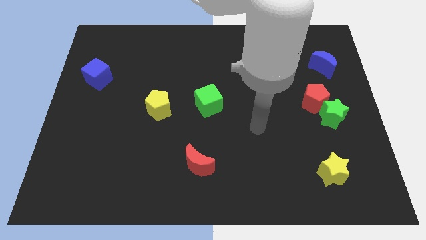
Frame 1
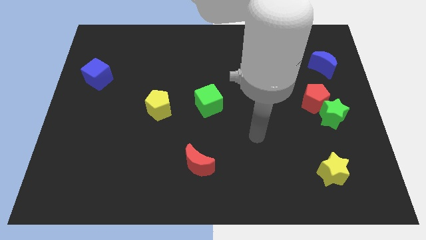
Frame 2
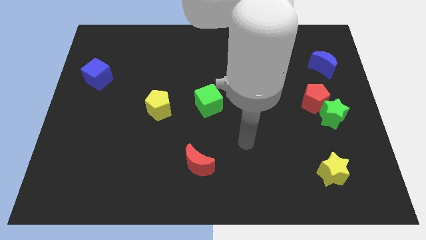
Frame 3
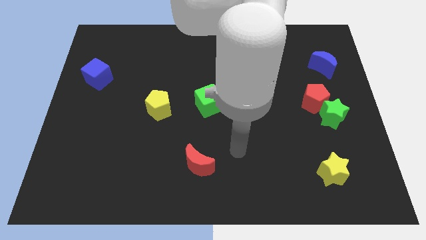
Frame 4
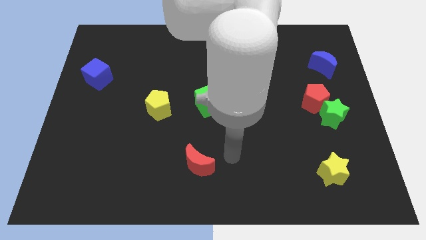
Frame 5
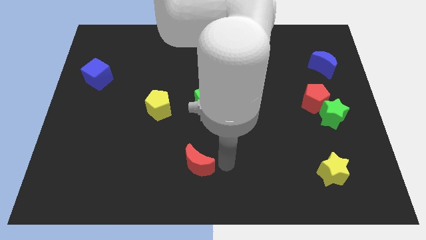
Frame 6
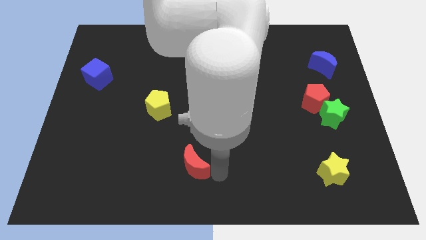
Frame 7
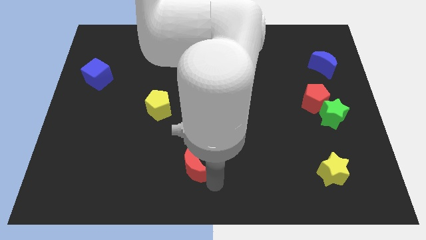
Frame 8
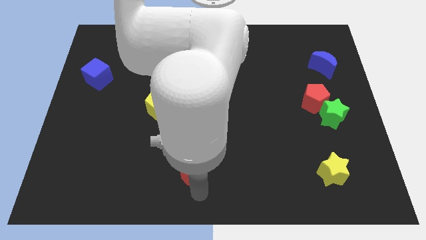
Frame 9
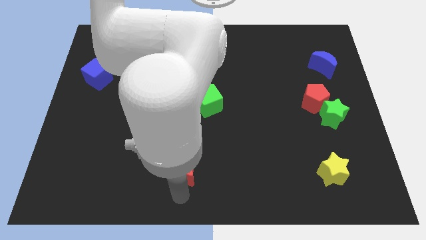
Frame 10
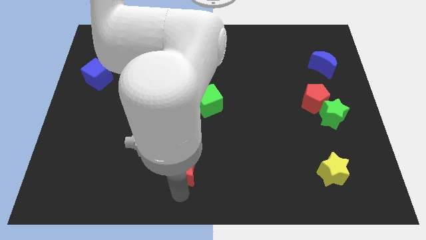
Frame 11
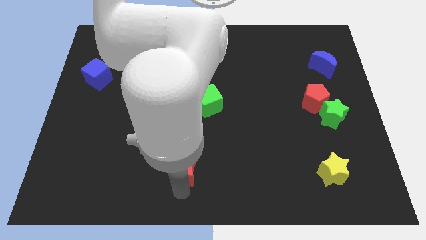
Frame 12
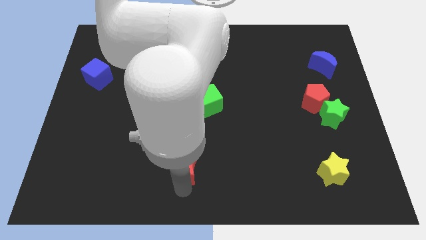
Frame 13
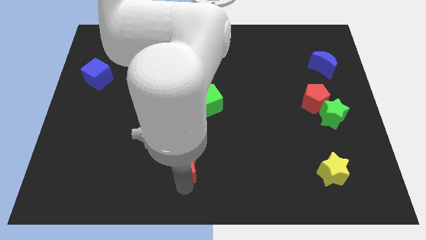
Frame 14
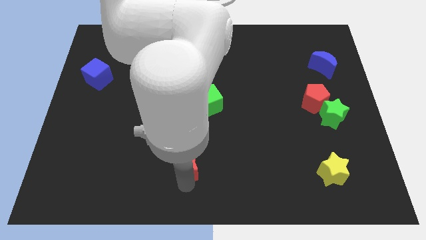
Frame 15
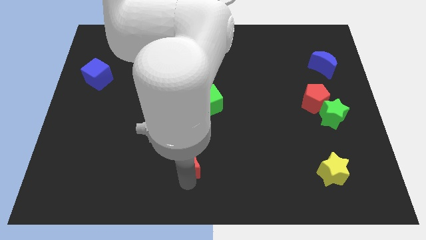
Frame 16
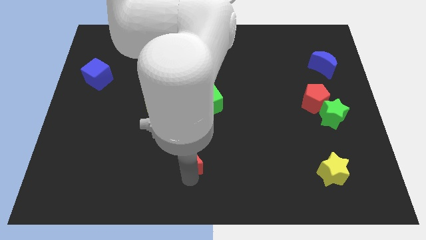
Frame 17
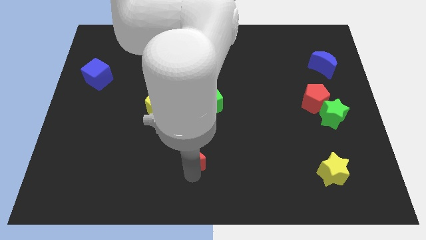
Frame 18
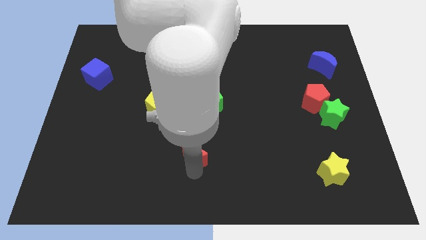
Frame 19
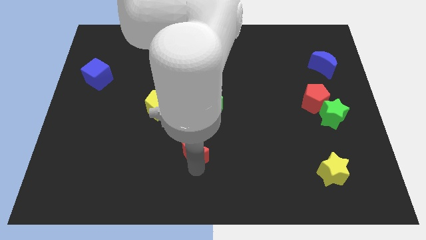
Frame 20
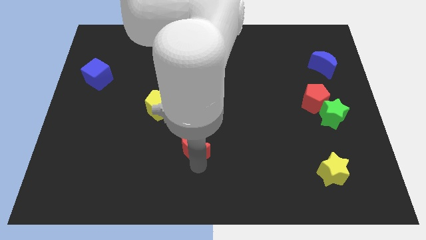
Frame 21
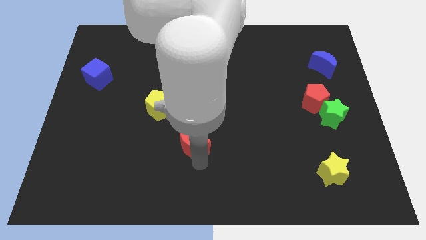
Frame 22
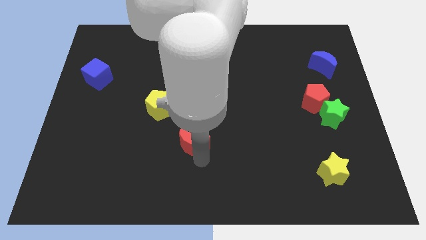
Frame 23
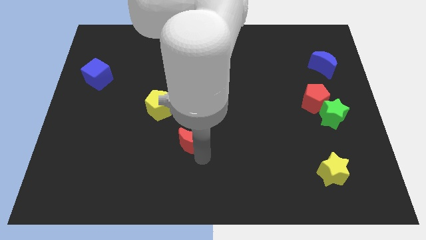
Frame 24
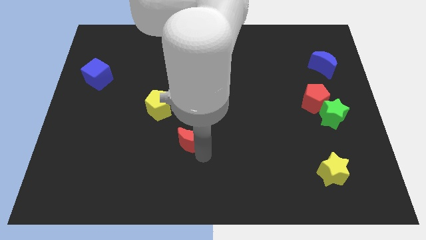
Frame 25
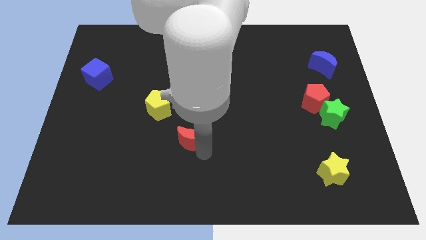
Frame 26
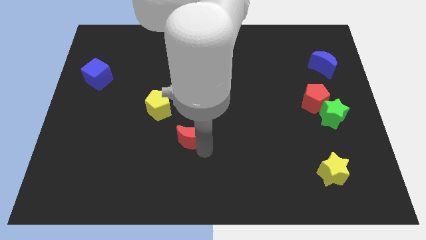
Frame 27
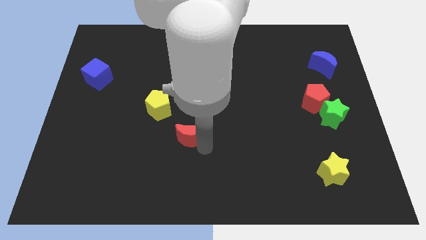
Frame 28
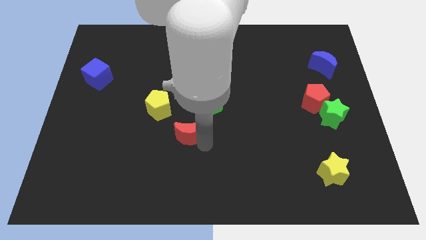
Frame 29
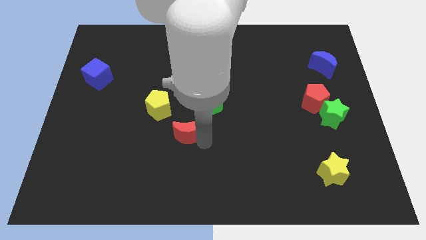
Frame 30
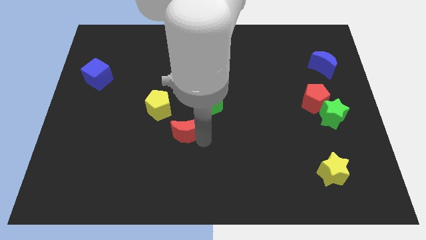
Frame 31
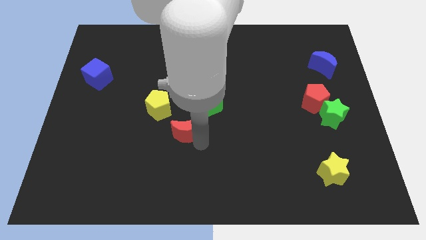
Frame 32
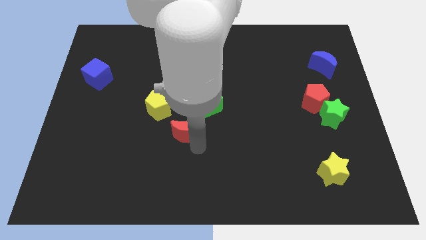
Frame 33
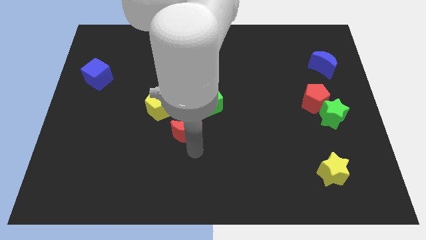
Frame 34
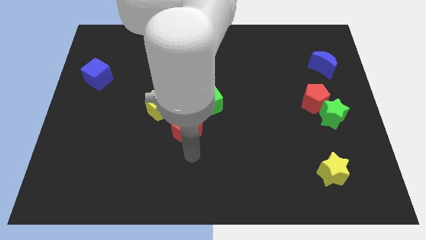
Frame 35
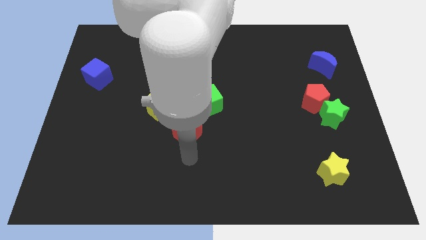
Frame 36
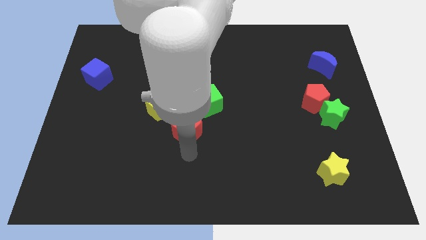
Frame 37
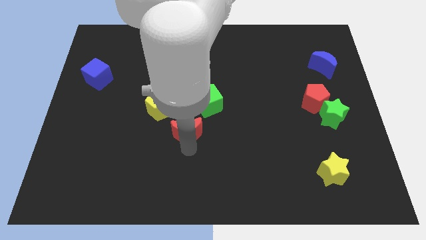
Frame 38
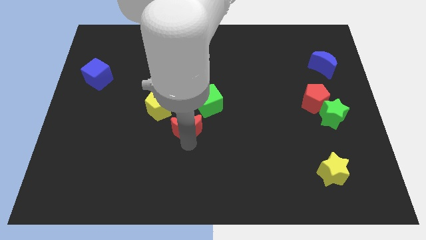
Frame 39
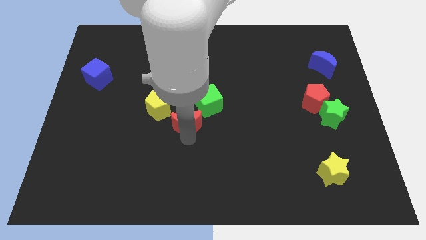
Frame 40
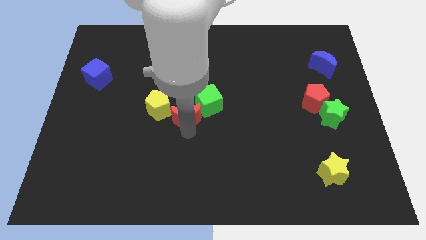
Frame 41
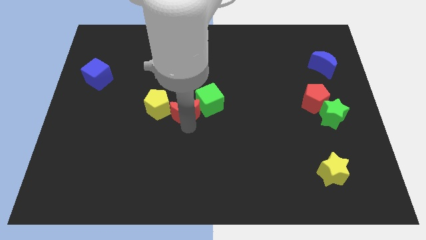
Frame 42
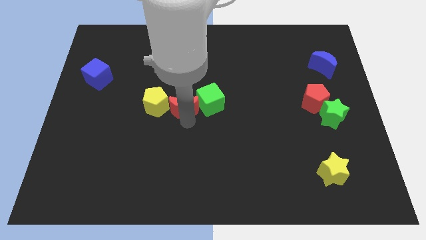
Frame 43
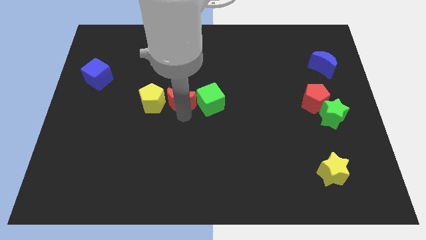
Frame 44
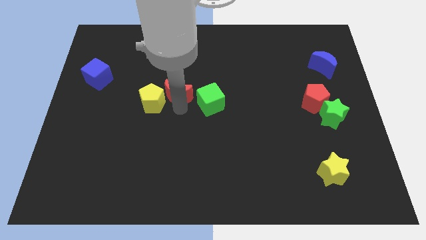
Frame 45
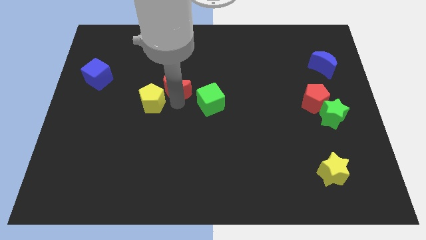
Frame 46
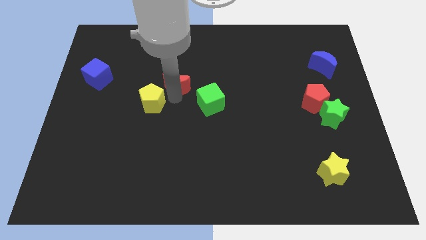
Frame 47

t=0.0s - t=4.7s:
push the red moon upwards

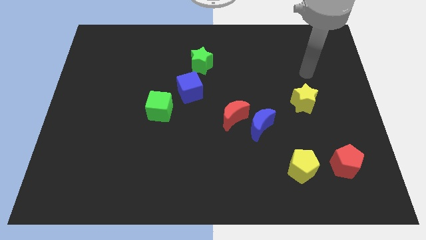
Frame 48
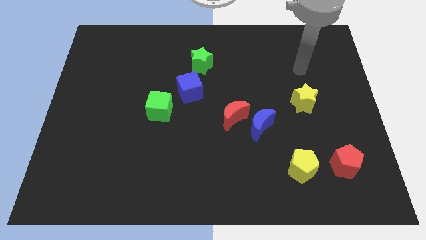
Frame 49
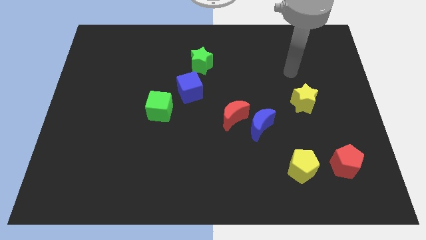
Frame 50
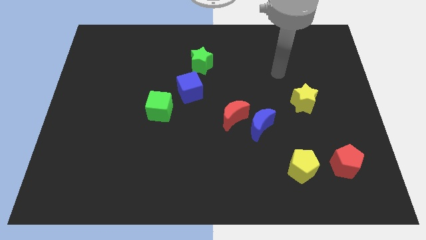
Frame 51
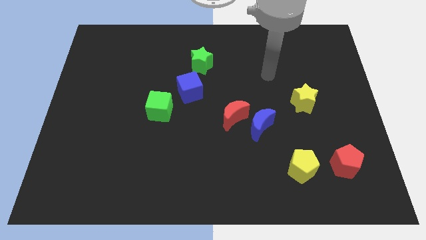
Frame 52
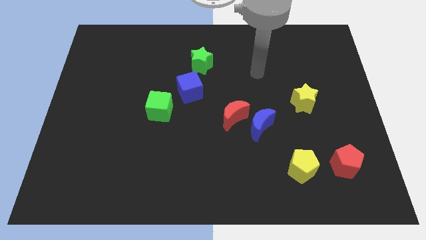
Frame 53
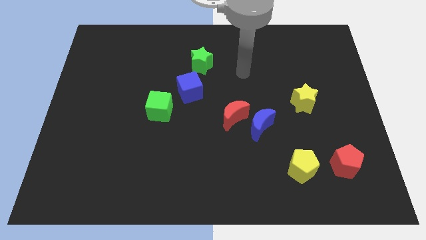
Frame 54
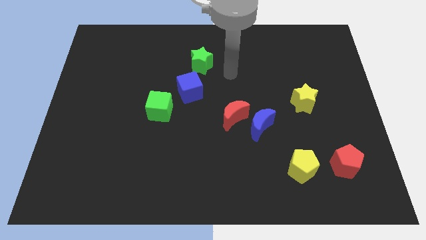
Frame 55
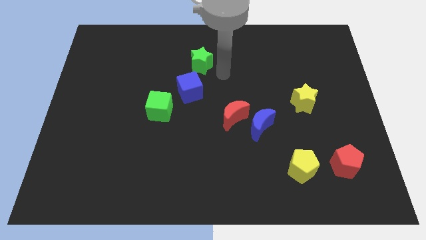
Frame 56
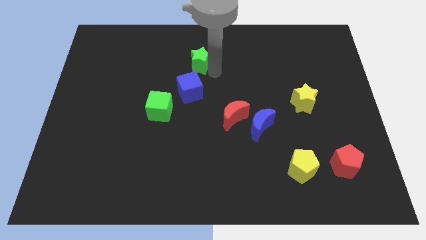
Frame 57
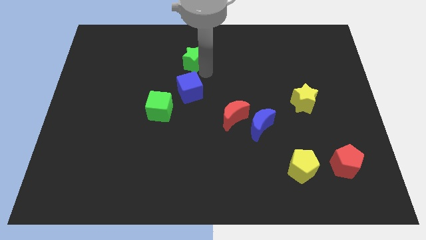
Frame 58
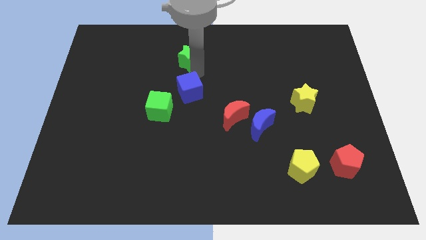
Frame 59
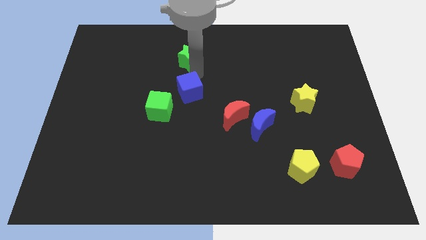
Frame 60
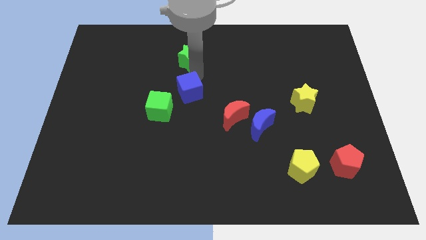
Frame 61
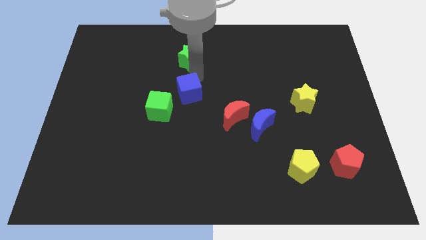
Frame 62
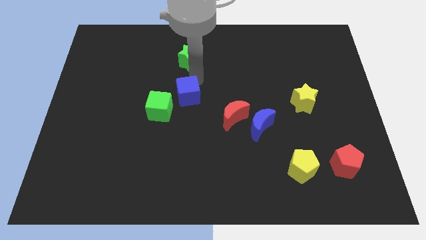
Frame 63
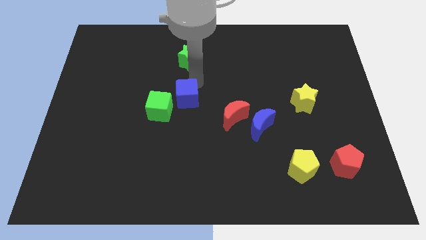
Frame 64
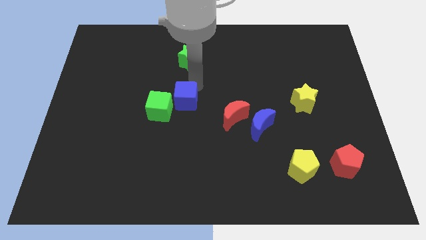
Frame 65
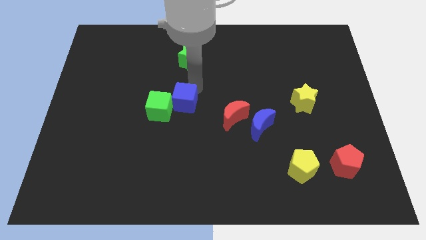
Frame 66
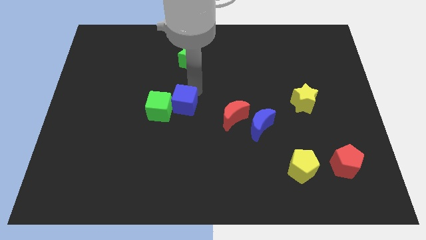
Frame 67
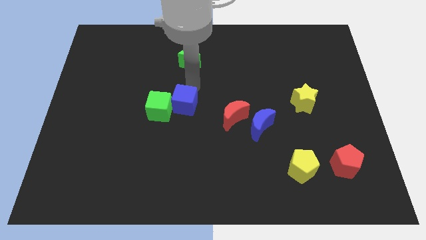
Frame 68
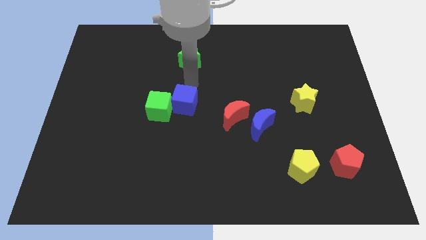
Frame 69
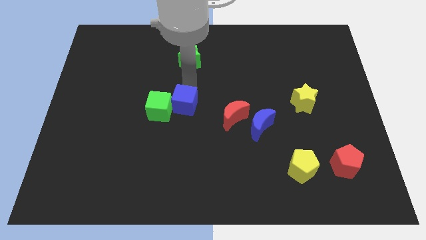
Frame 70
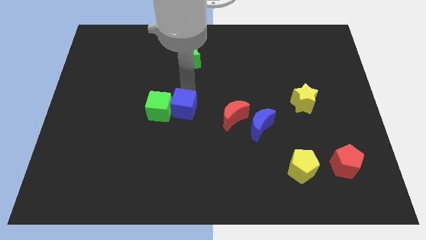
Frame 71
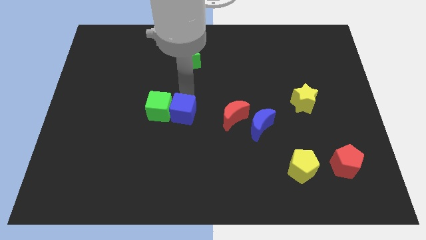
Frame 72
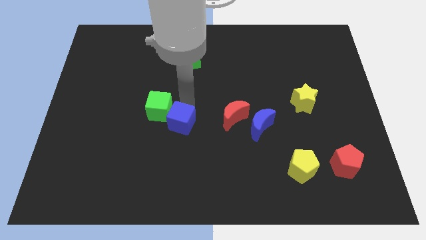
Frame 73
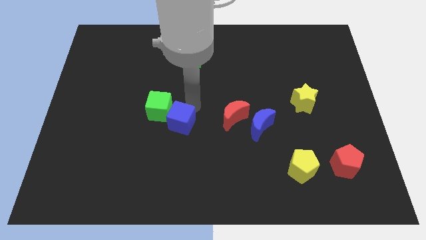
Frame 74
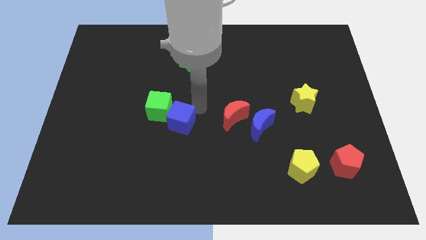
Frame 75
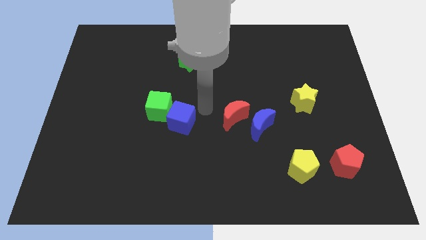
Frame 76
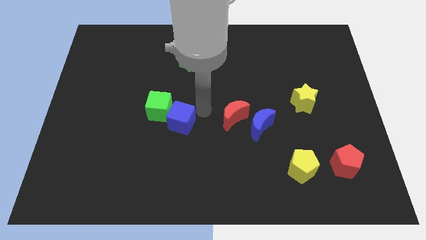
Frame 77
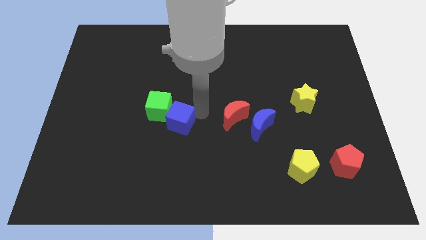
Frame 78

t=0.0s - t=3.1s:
move the blue cube slightly downwards and to the left
